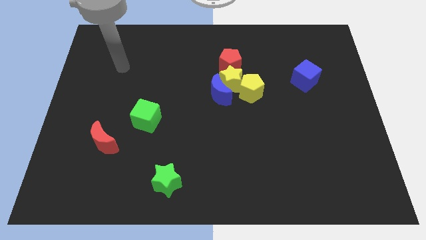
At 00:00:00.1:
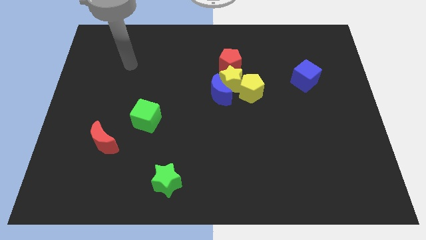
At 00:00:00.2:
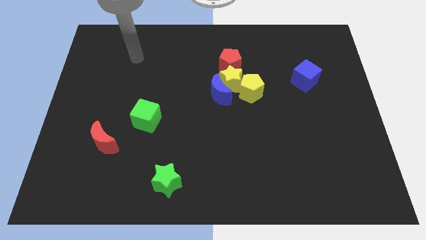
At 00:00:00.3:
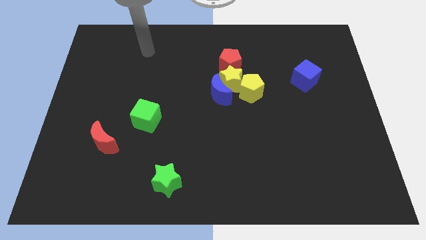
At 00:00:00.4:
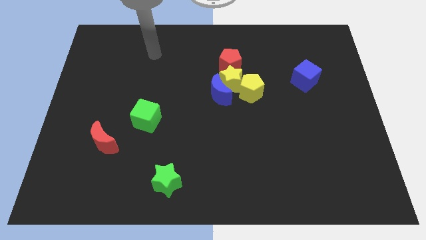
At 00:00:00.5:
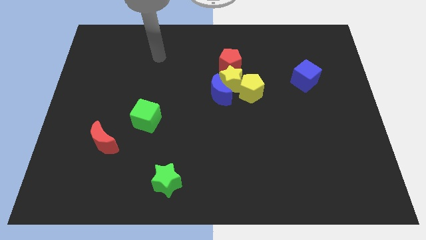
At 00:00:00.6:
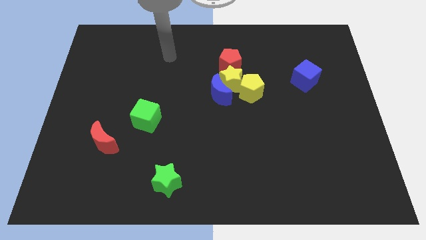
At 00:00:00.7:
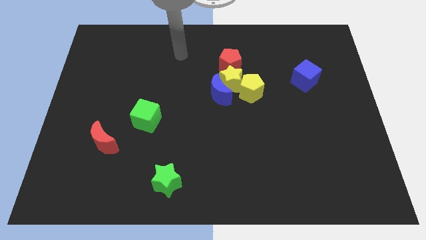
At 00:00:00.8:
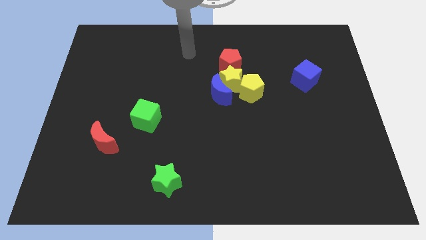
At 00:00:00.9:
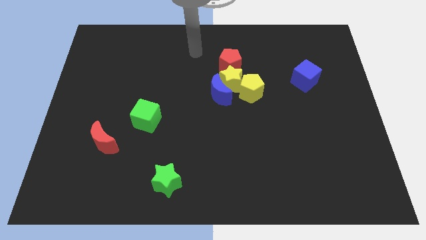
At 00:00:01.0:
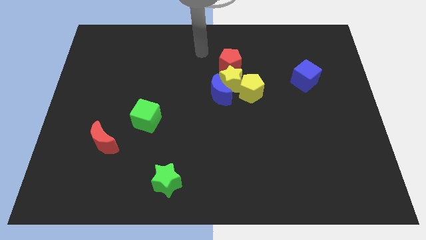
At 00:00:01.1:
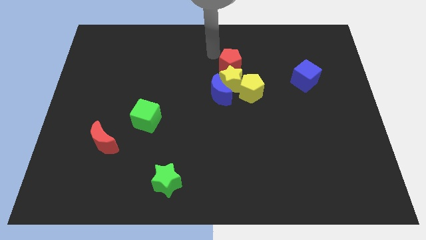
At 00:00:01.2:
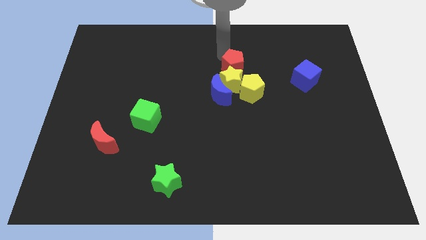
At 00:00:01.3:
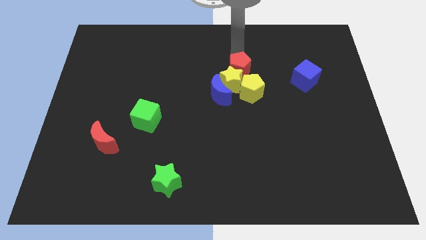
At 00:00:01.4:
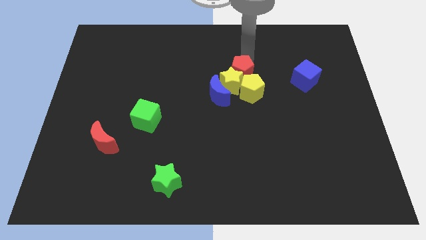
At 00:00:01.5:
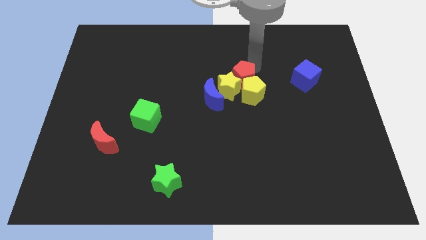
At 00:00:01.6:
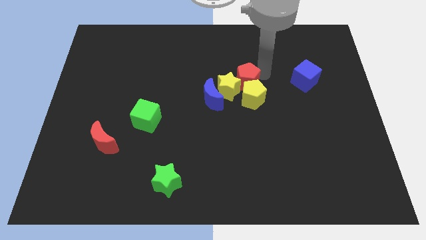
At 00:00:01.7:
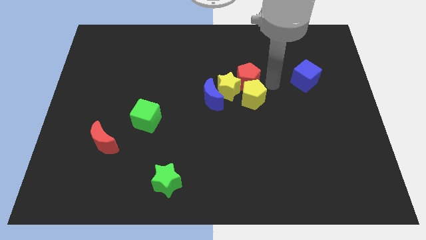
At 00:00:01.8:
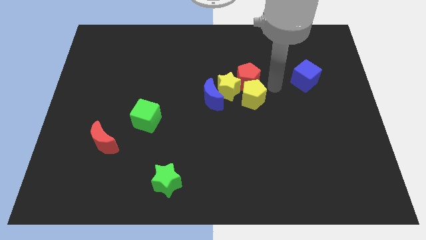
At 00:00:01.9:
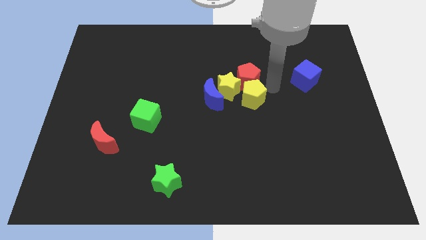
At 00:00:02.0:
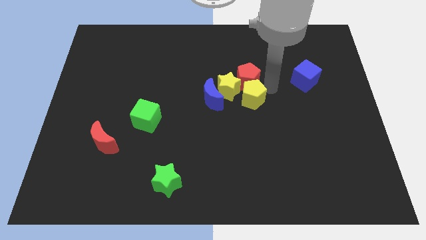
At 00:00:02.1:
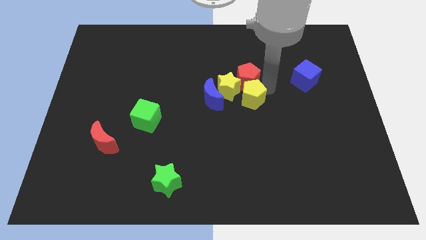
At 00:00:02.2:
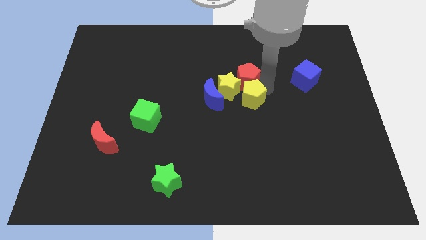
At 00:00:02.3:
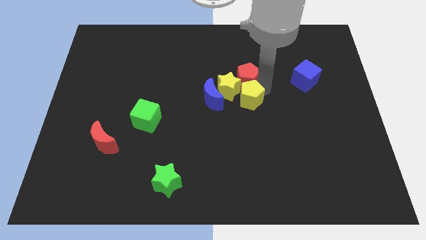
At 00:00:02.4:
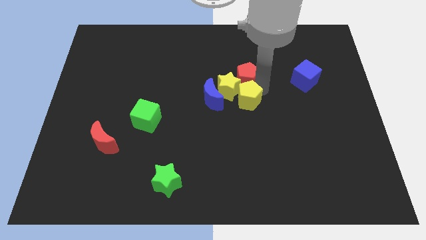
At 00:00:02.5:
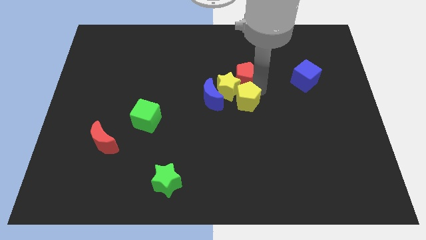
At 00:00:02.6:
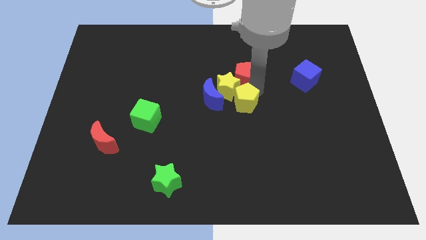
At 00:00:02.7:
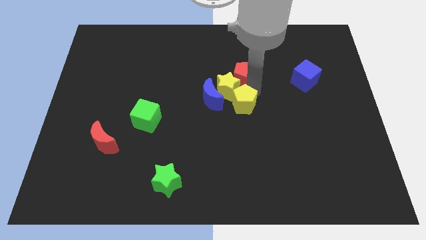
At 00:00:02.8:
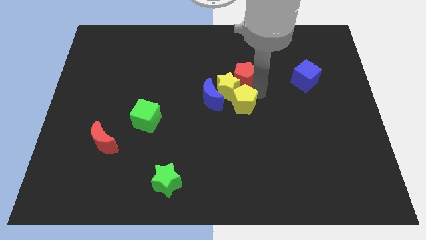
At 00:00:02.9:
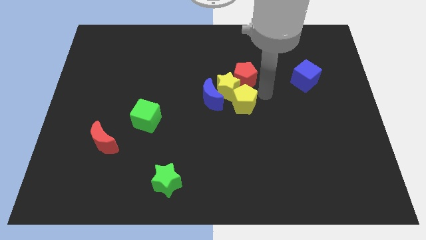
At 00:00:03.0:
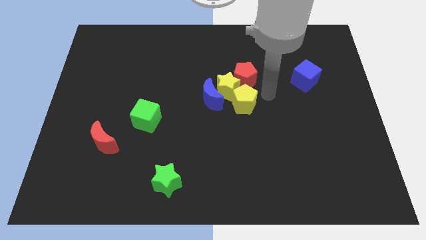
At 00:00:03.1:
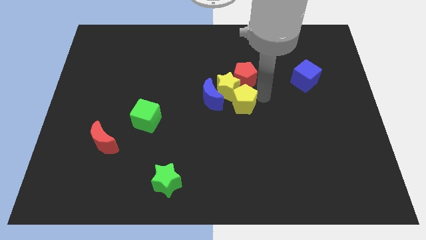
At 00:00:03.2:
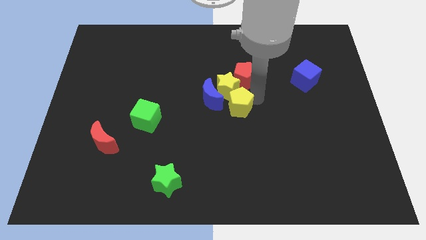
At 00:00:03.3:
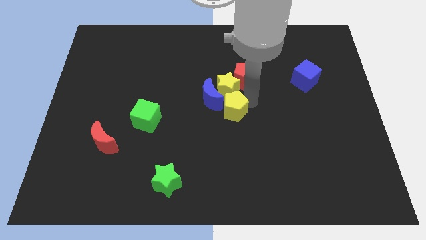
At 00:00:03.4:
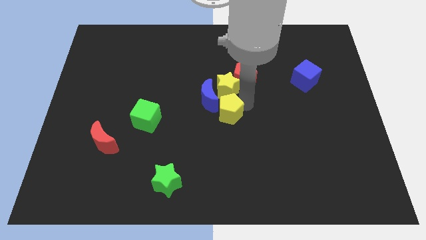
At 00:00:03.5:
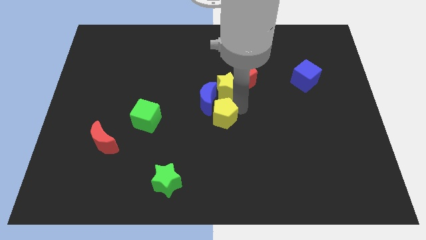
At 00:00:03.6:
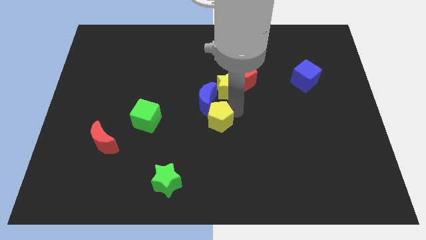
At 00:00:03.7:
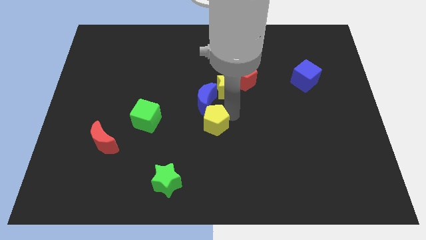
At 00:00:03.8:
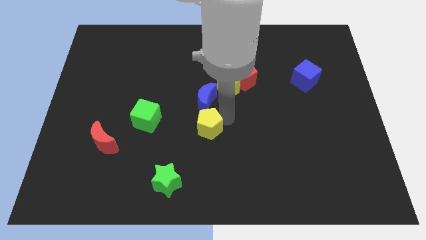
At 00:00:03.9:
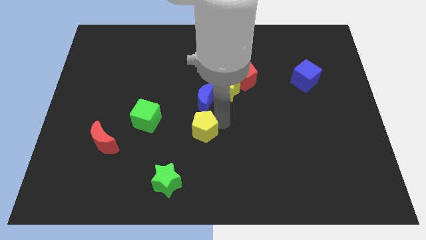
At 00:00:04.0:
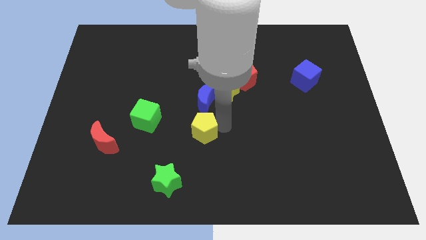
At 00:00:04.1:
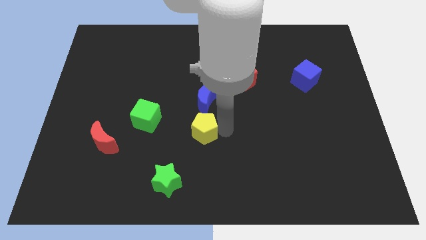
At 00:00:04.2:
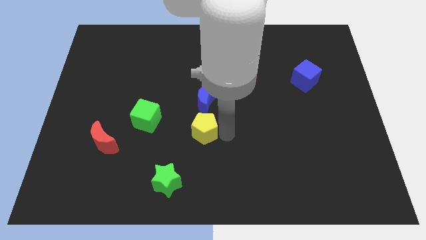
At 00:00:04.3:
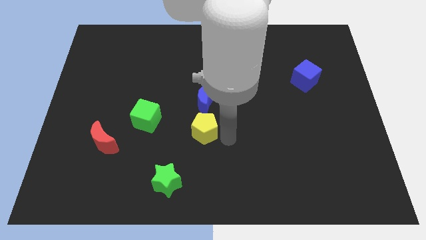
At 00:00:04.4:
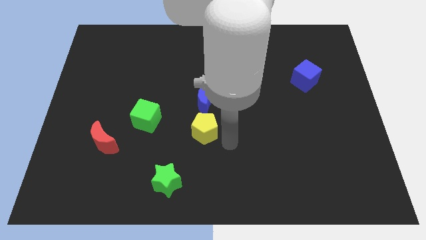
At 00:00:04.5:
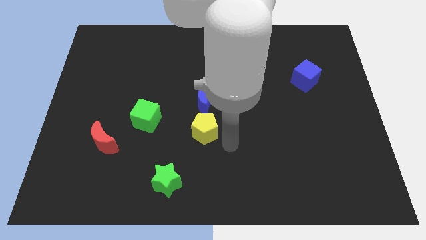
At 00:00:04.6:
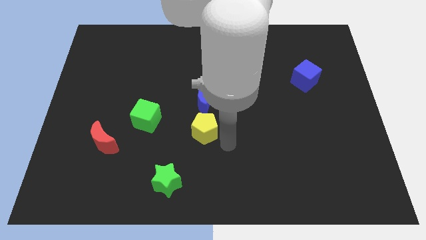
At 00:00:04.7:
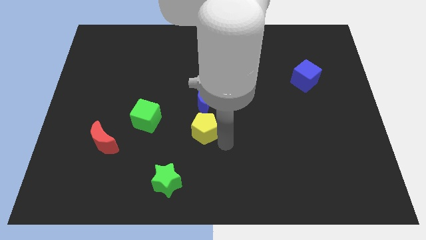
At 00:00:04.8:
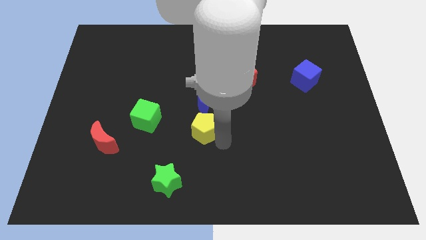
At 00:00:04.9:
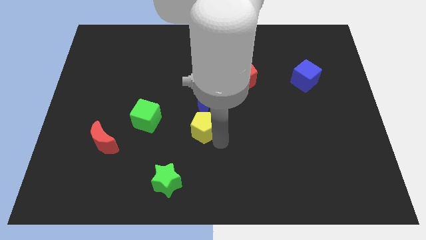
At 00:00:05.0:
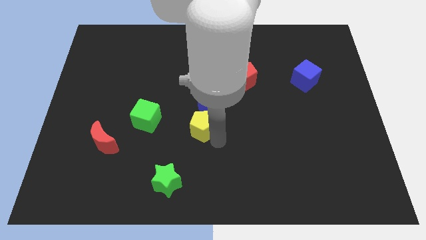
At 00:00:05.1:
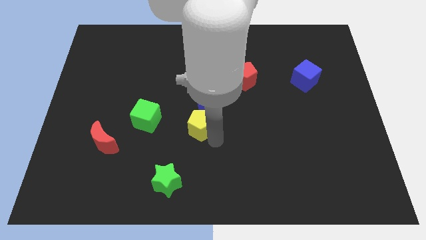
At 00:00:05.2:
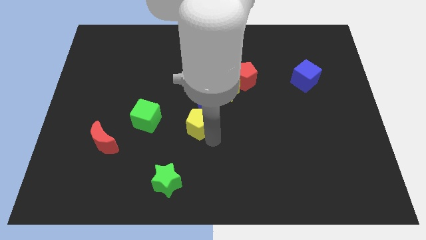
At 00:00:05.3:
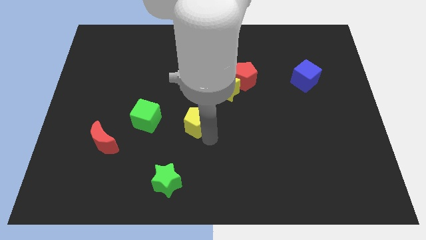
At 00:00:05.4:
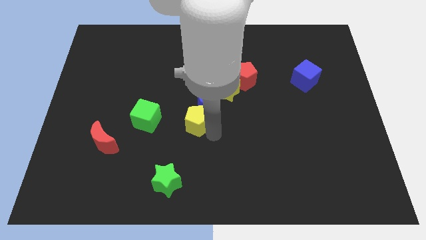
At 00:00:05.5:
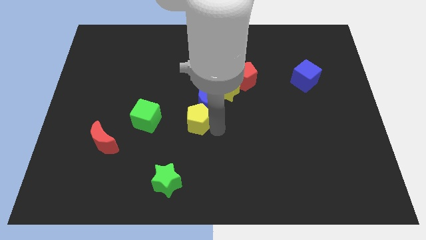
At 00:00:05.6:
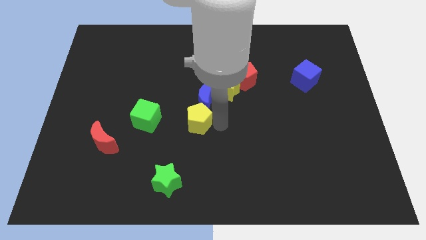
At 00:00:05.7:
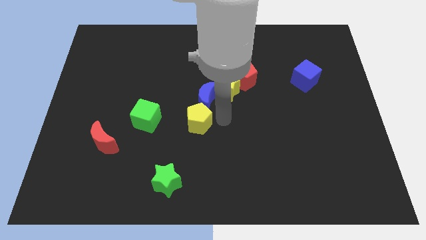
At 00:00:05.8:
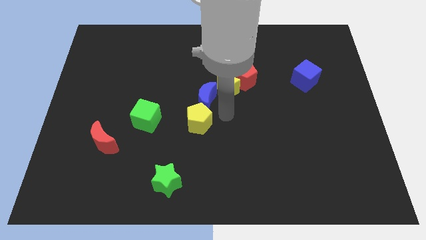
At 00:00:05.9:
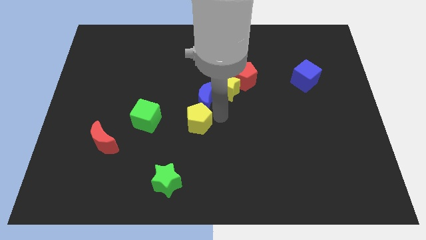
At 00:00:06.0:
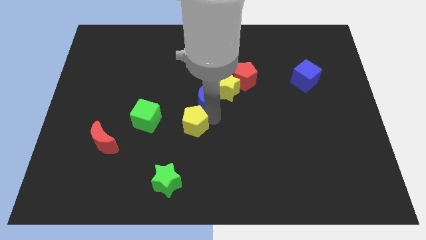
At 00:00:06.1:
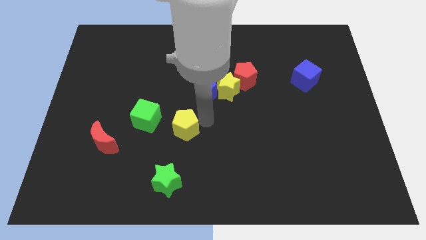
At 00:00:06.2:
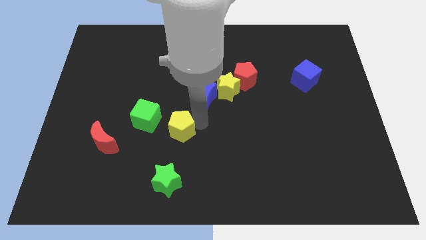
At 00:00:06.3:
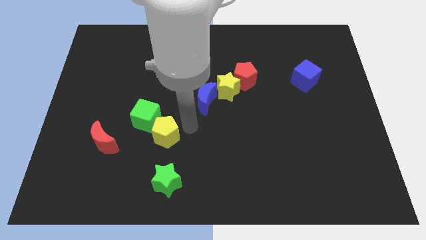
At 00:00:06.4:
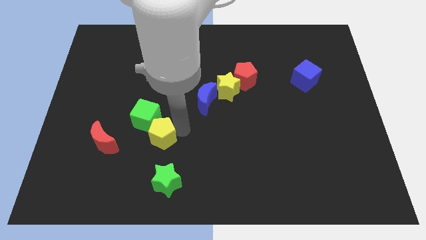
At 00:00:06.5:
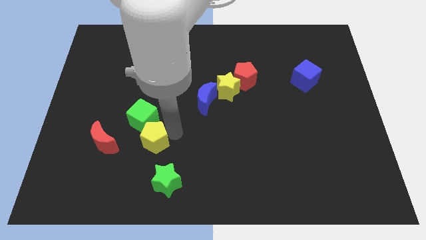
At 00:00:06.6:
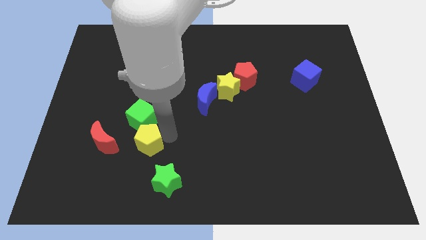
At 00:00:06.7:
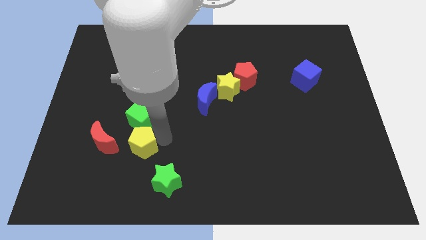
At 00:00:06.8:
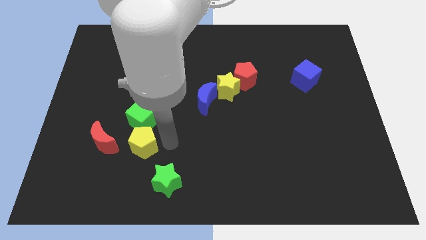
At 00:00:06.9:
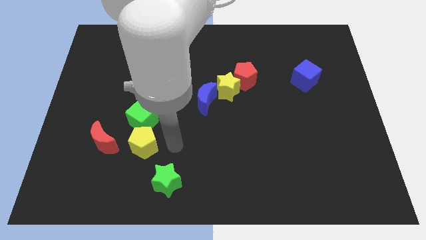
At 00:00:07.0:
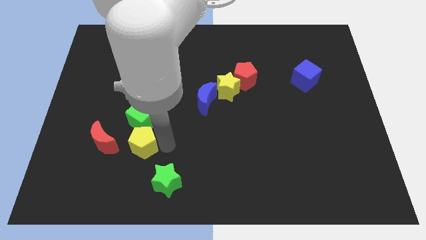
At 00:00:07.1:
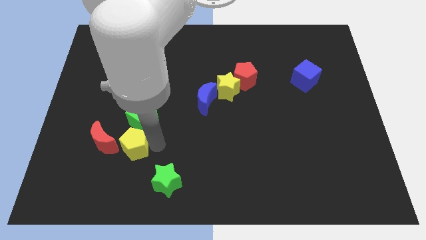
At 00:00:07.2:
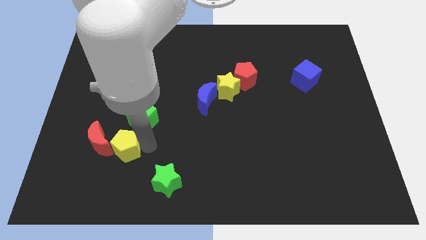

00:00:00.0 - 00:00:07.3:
move the yellow pentagon towards the red moon
